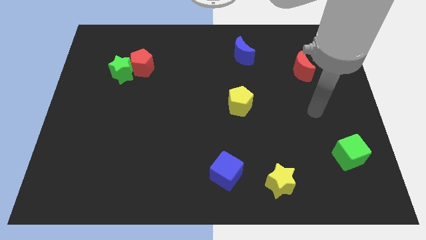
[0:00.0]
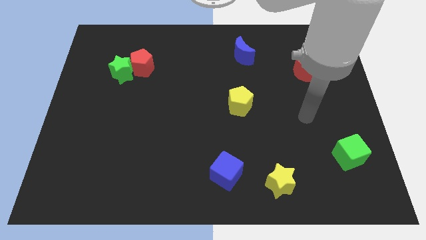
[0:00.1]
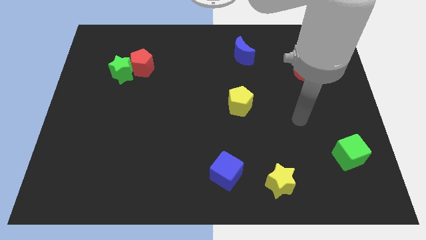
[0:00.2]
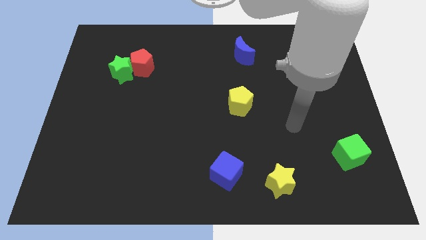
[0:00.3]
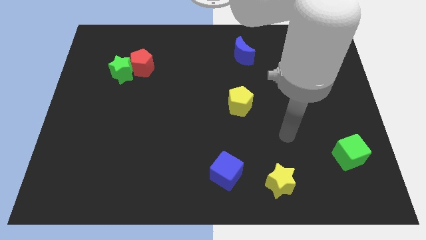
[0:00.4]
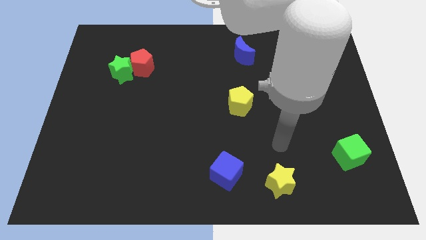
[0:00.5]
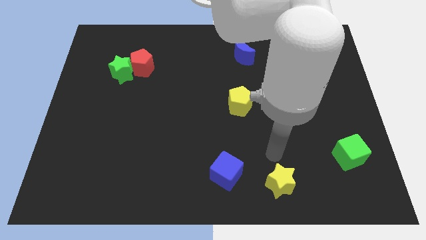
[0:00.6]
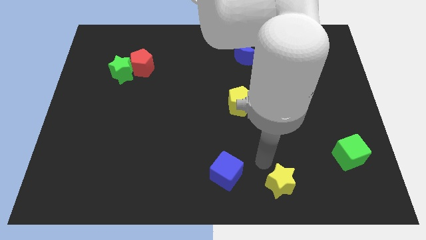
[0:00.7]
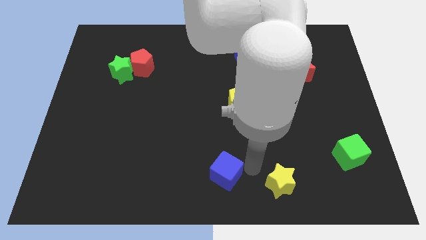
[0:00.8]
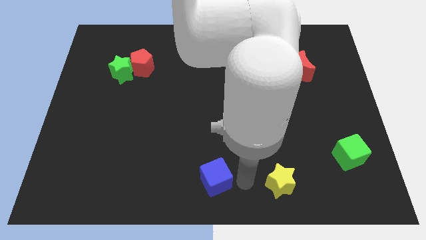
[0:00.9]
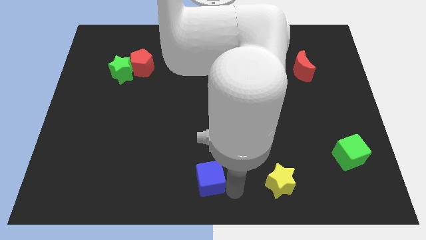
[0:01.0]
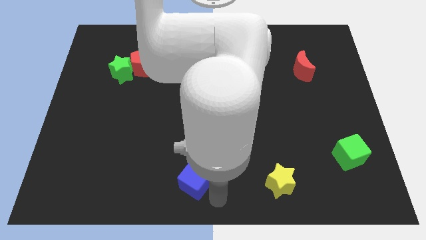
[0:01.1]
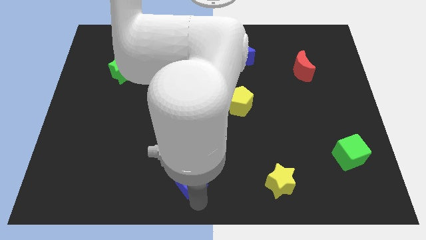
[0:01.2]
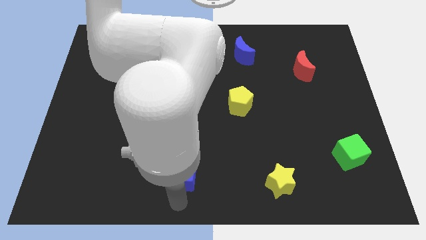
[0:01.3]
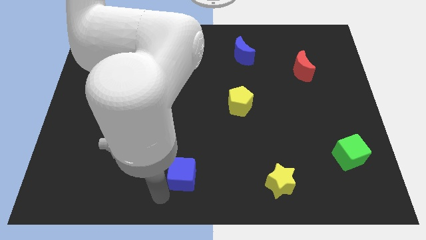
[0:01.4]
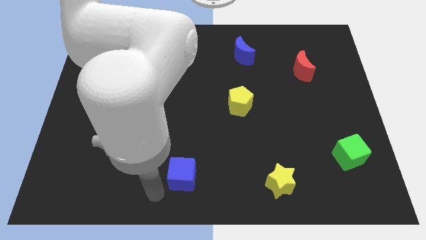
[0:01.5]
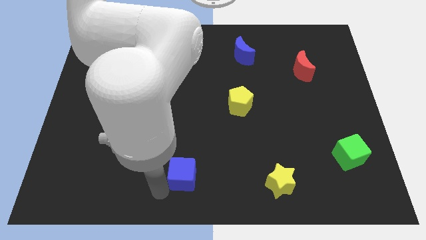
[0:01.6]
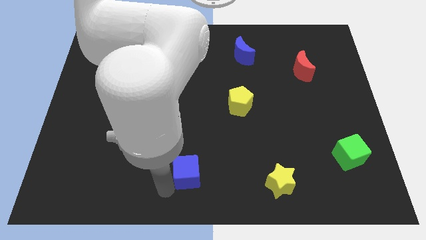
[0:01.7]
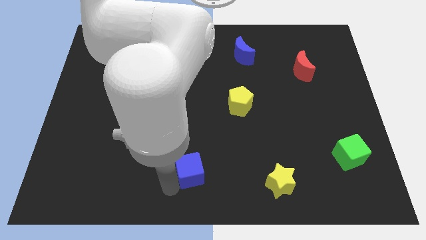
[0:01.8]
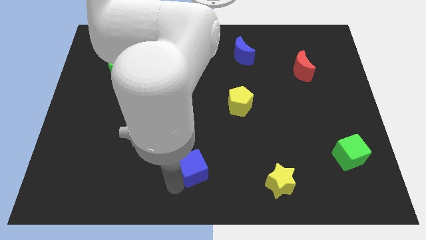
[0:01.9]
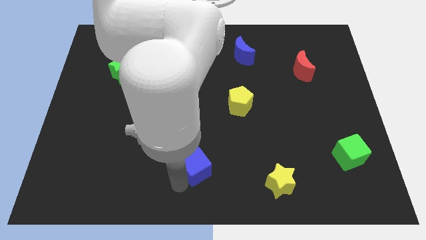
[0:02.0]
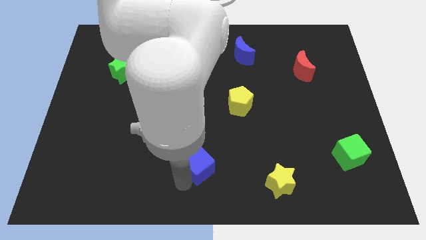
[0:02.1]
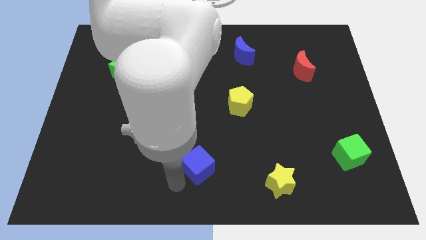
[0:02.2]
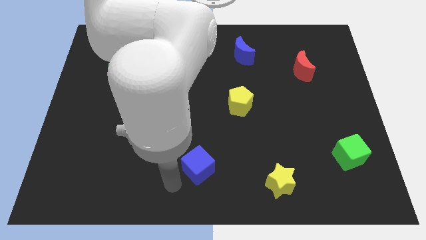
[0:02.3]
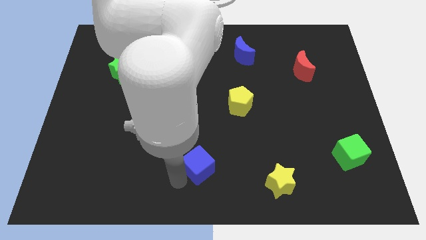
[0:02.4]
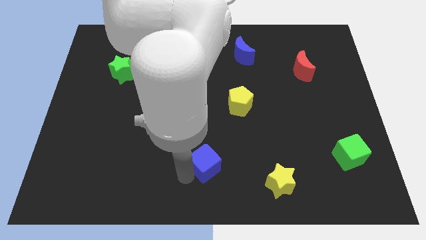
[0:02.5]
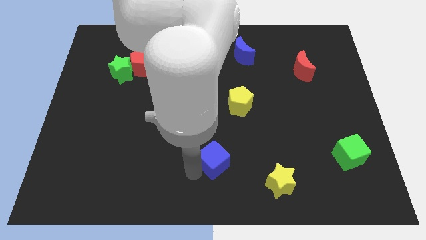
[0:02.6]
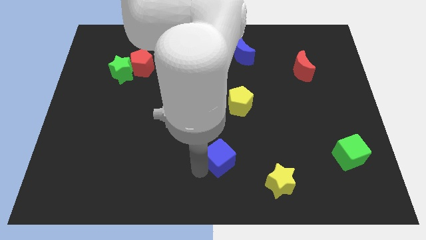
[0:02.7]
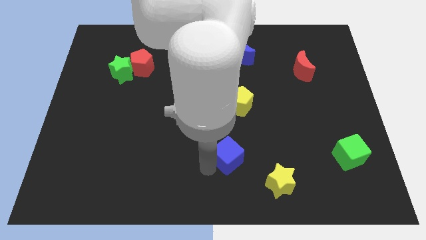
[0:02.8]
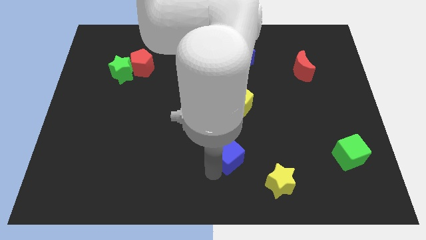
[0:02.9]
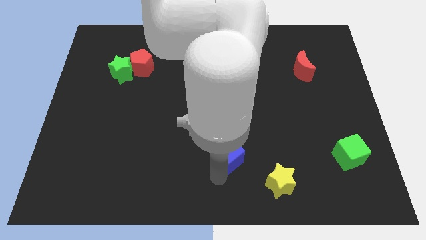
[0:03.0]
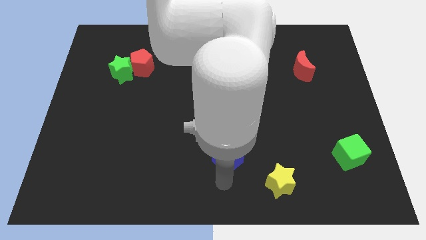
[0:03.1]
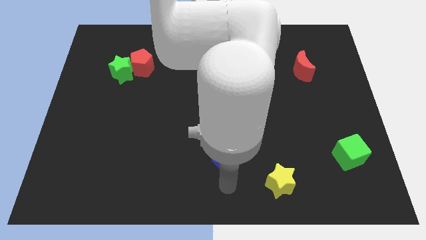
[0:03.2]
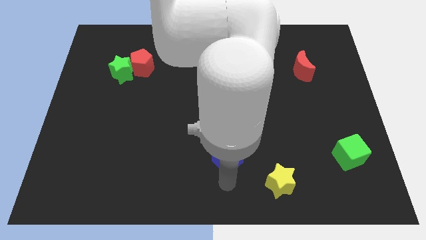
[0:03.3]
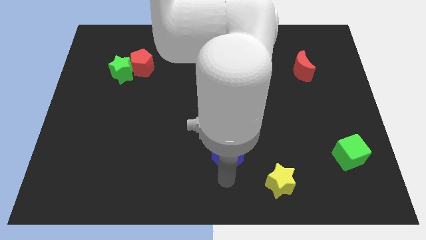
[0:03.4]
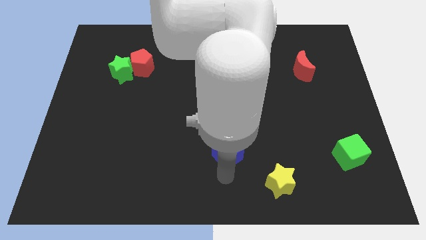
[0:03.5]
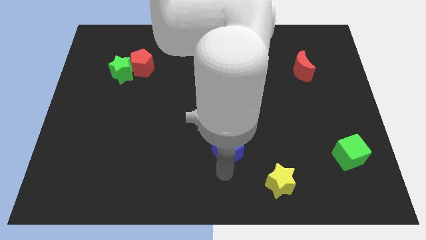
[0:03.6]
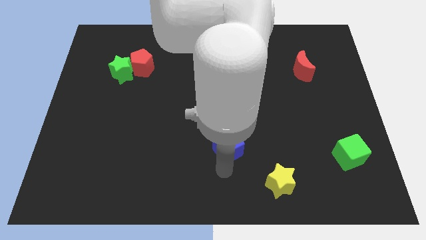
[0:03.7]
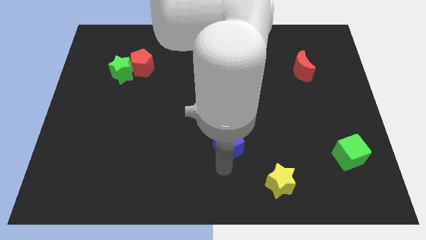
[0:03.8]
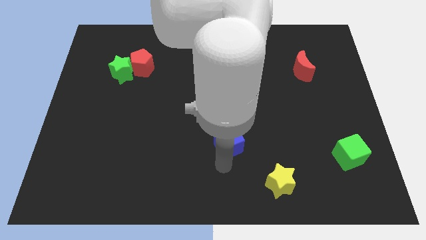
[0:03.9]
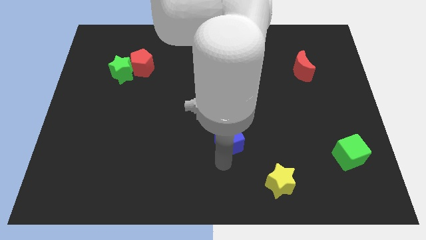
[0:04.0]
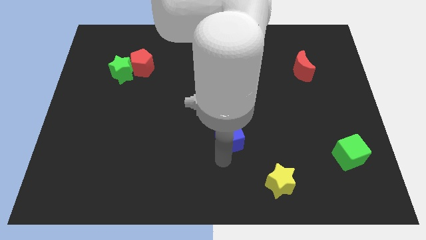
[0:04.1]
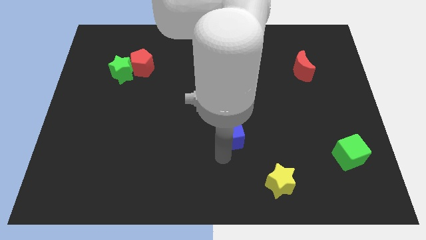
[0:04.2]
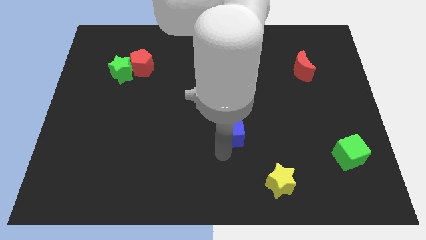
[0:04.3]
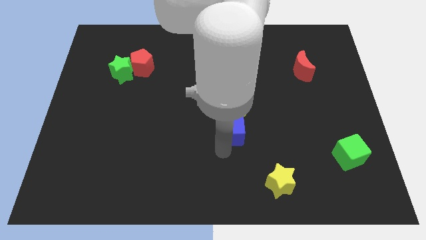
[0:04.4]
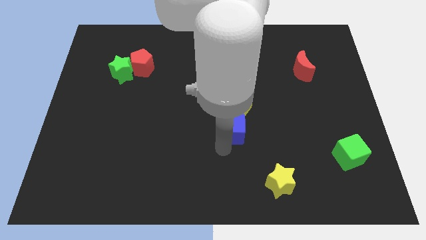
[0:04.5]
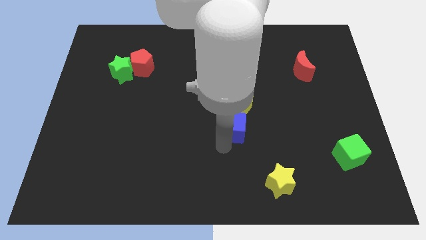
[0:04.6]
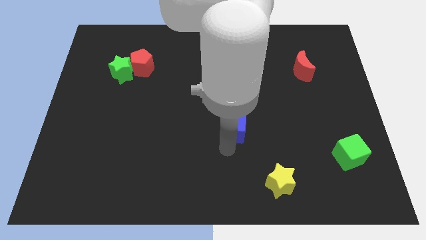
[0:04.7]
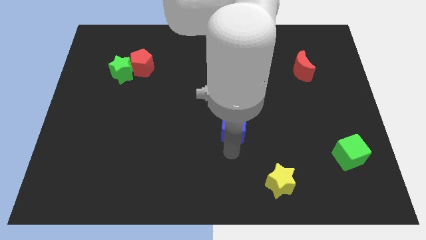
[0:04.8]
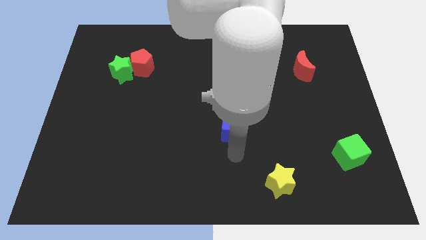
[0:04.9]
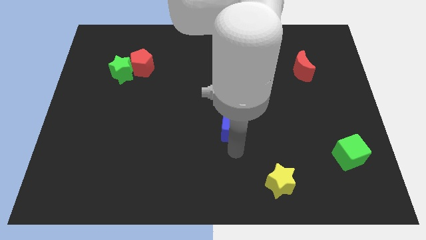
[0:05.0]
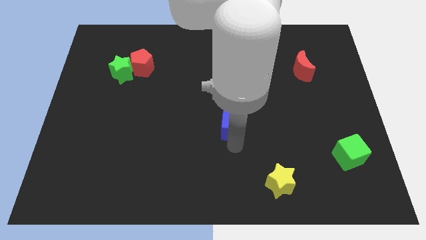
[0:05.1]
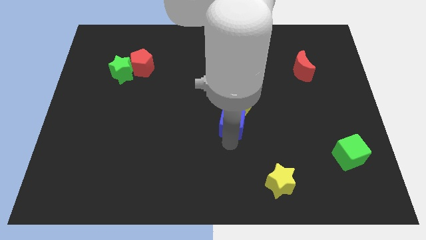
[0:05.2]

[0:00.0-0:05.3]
move the blue cube next to the yellow pentagon

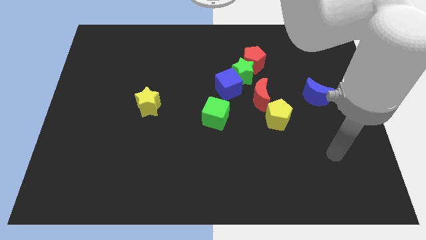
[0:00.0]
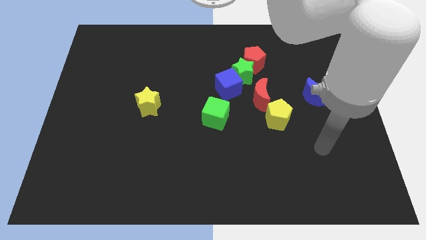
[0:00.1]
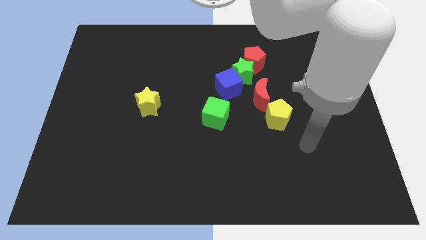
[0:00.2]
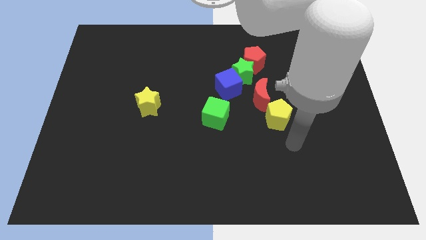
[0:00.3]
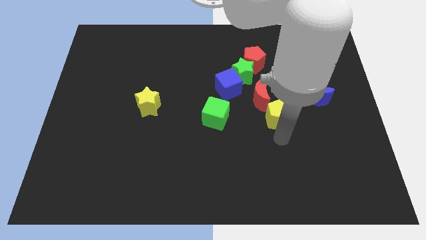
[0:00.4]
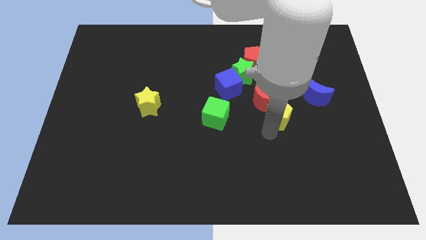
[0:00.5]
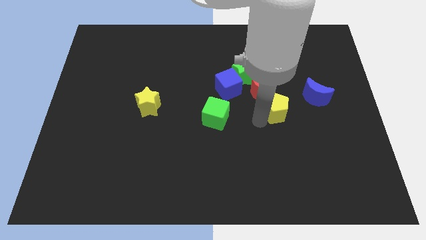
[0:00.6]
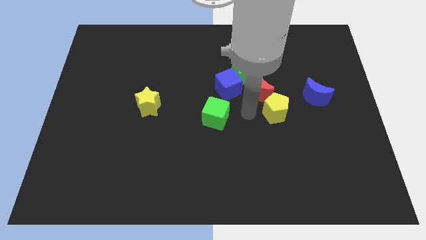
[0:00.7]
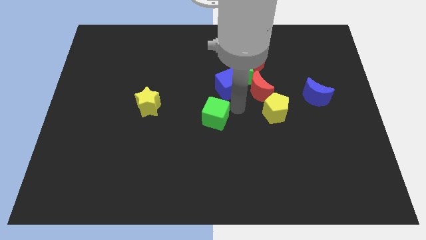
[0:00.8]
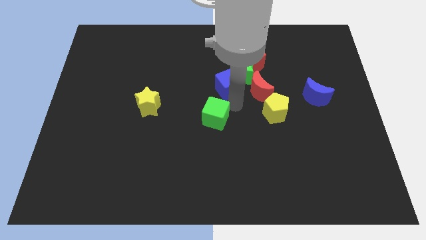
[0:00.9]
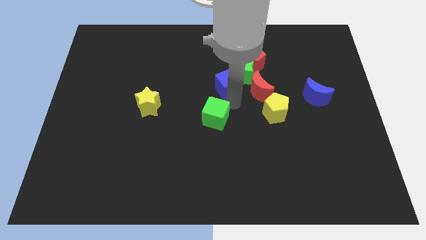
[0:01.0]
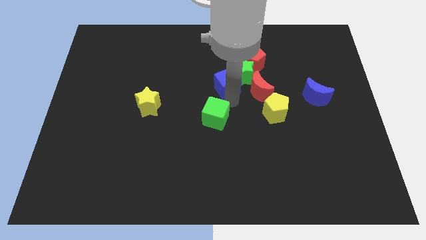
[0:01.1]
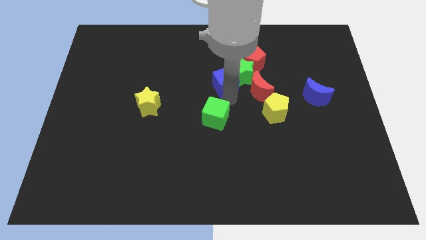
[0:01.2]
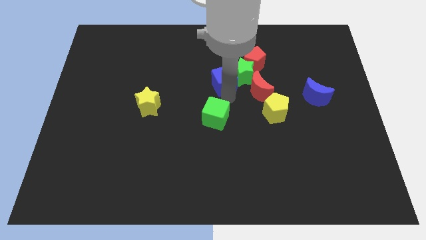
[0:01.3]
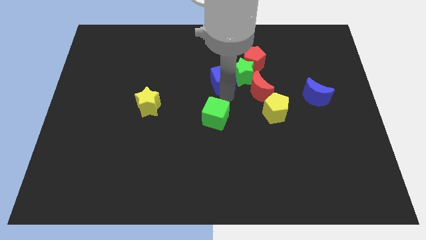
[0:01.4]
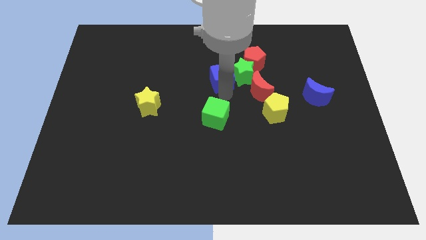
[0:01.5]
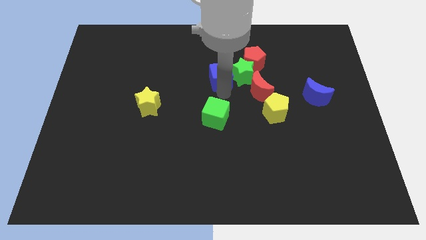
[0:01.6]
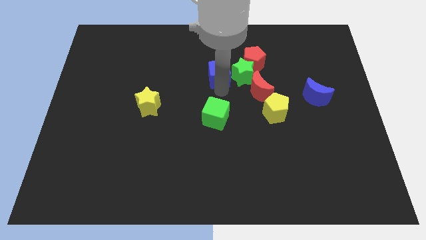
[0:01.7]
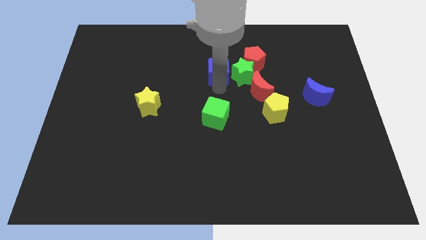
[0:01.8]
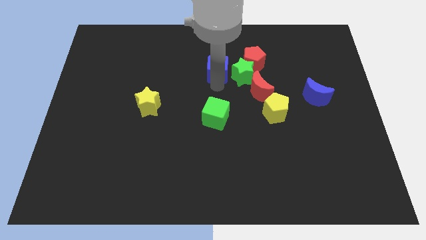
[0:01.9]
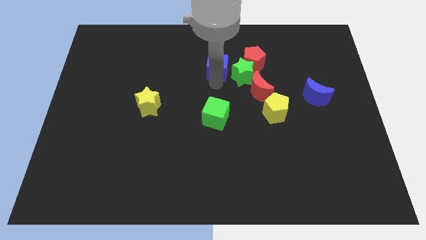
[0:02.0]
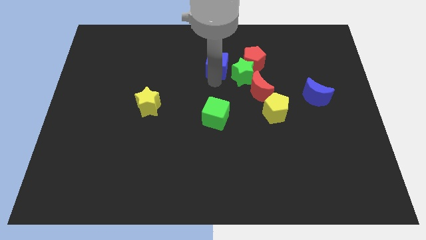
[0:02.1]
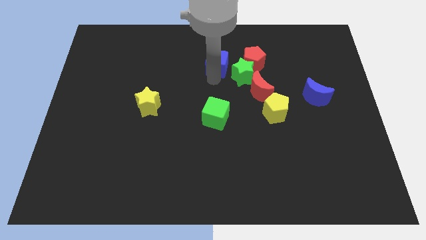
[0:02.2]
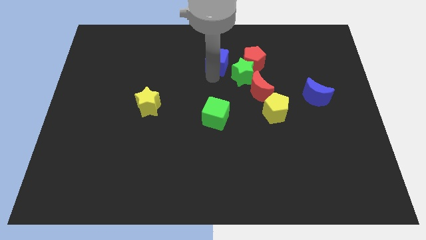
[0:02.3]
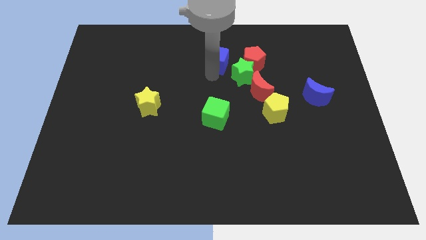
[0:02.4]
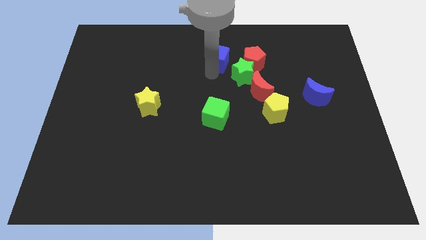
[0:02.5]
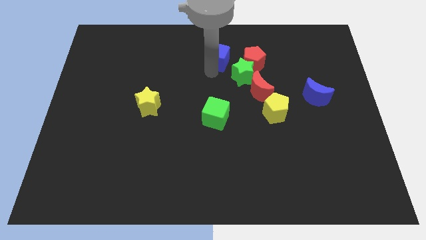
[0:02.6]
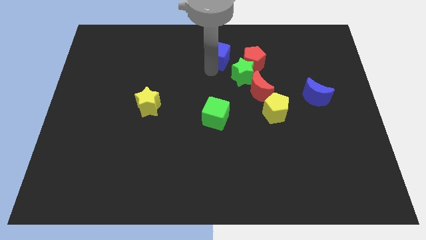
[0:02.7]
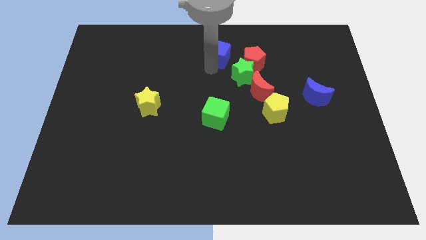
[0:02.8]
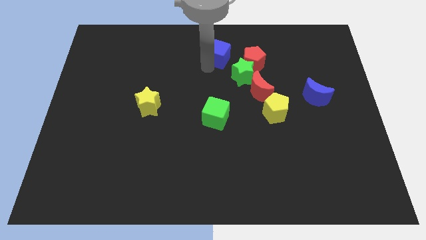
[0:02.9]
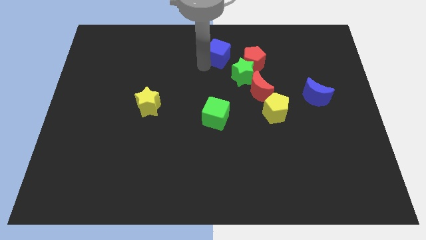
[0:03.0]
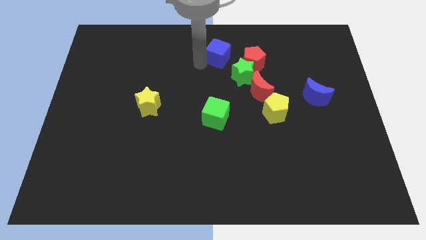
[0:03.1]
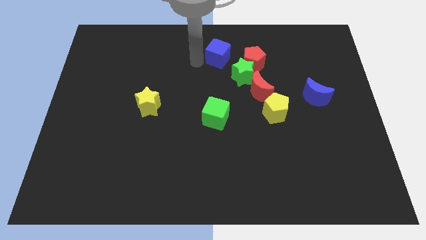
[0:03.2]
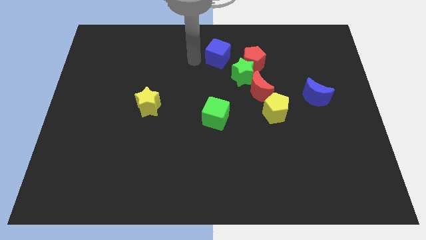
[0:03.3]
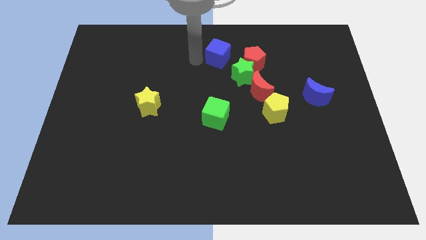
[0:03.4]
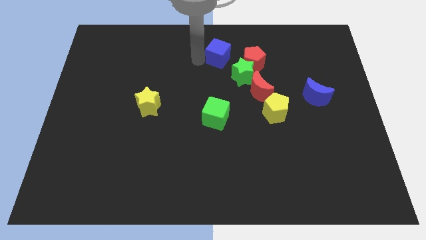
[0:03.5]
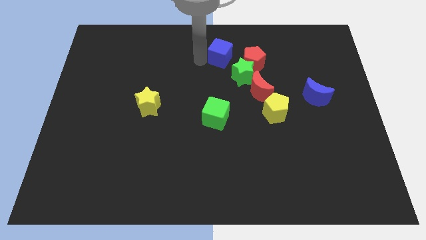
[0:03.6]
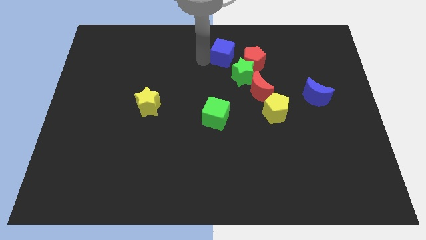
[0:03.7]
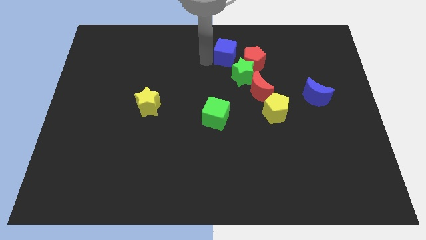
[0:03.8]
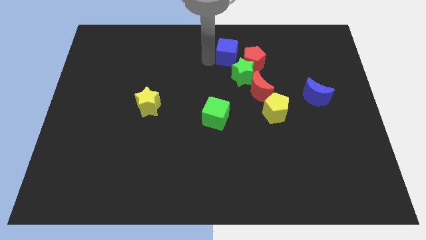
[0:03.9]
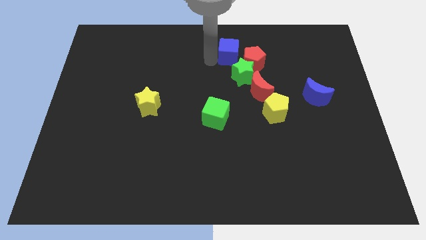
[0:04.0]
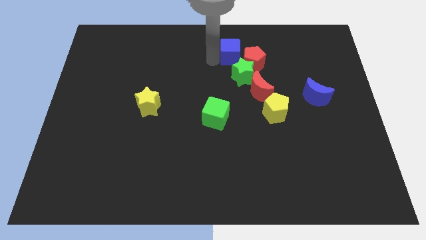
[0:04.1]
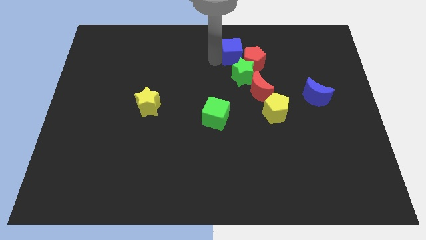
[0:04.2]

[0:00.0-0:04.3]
put the blue cube towards the red pentagon
